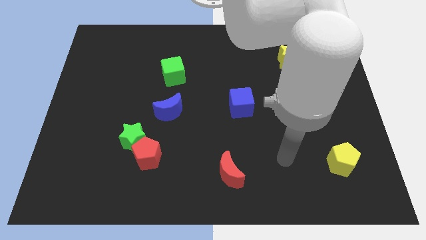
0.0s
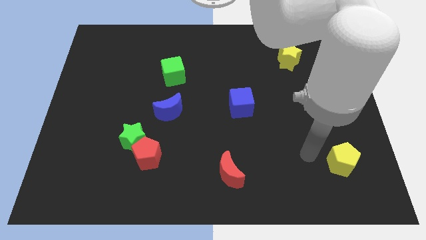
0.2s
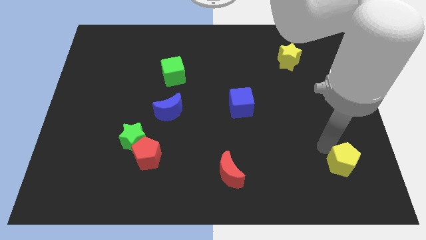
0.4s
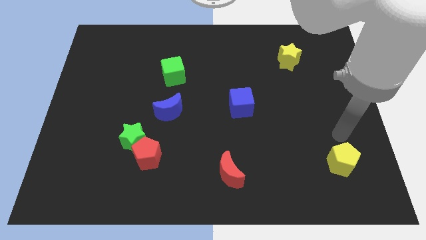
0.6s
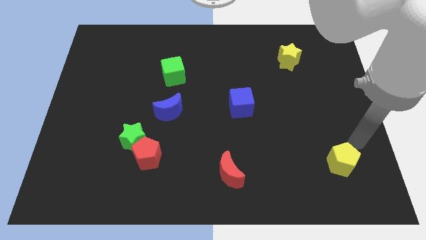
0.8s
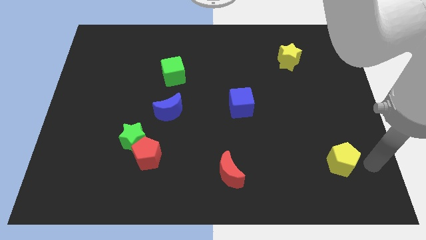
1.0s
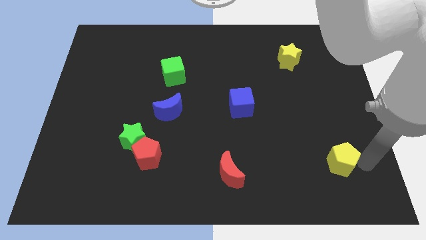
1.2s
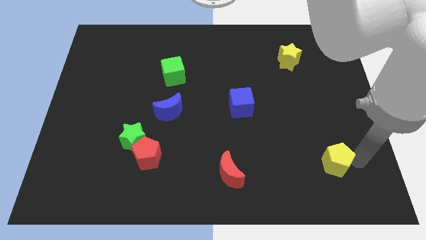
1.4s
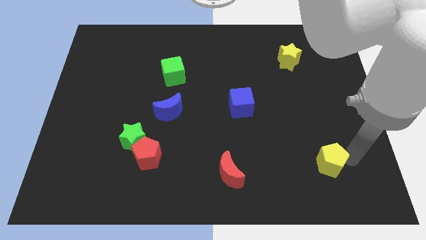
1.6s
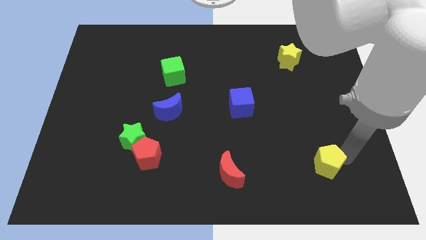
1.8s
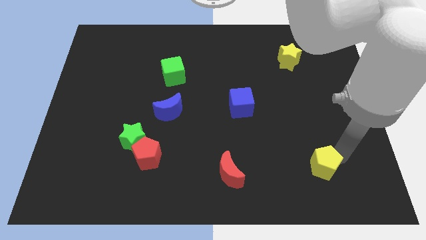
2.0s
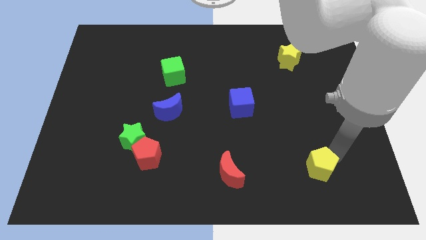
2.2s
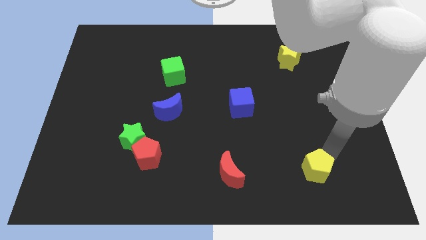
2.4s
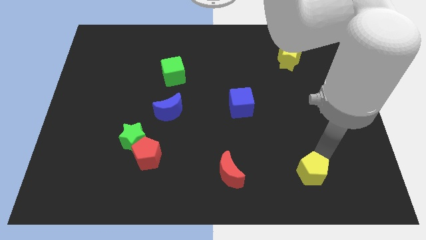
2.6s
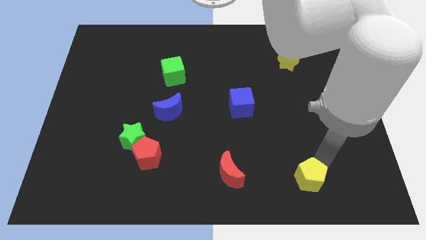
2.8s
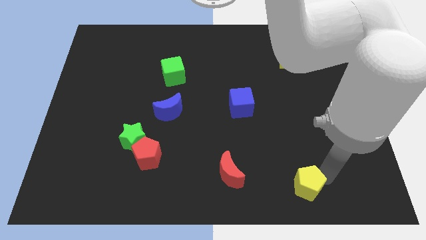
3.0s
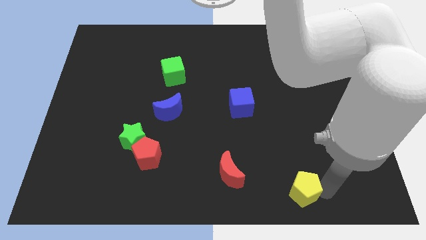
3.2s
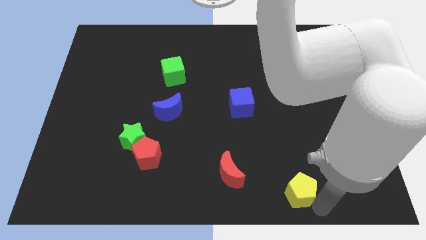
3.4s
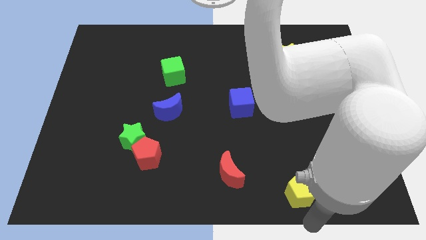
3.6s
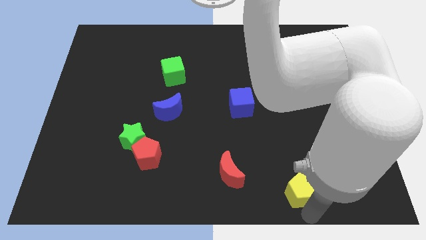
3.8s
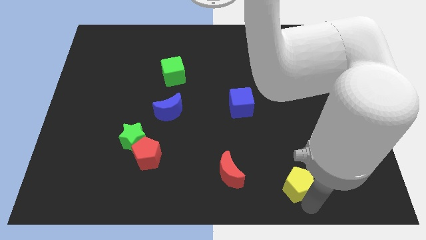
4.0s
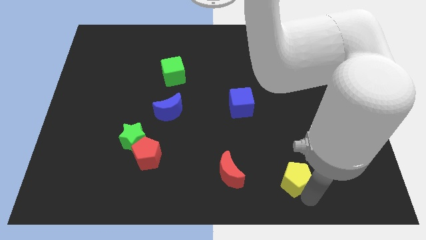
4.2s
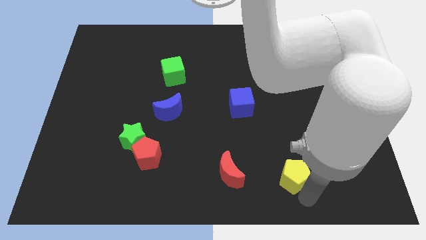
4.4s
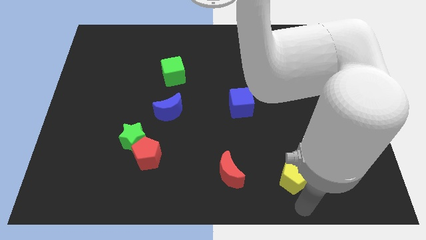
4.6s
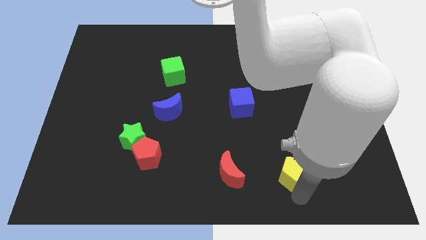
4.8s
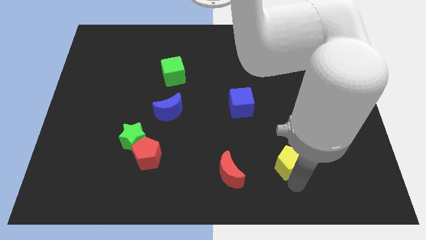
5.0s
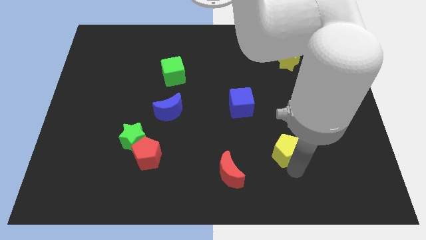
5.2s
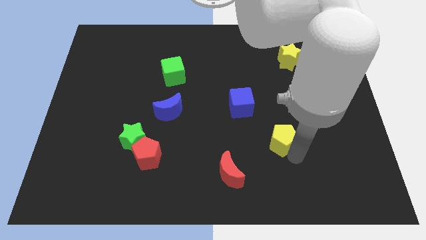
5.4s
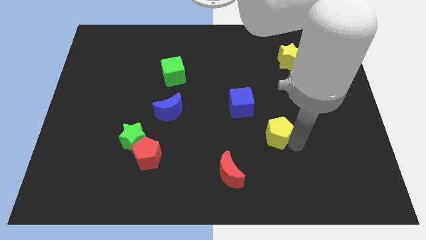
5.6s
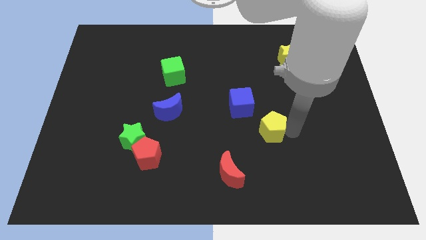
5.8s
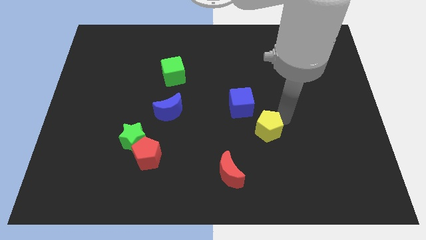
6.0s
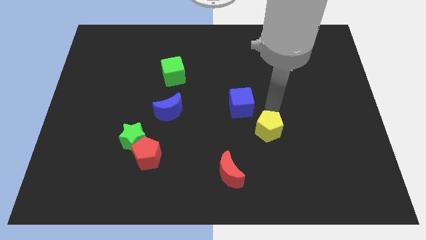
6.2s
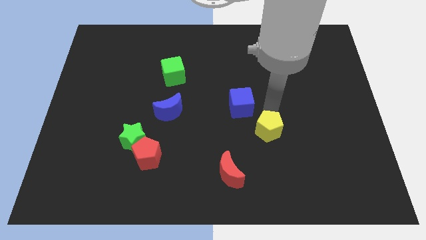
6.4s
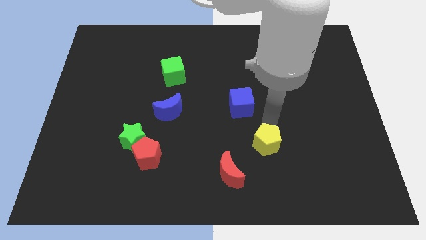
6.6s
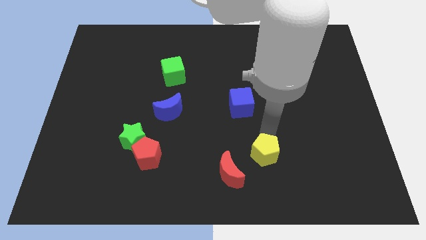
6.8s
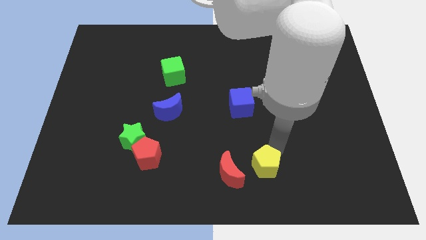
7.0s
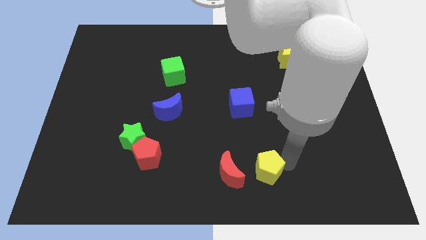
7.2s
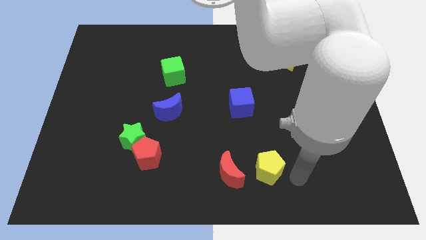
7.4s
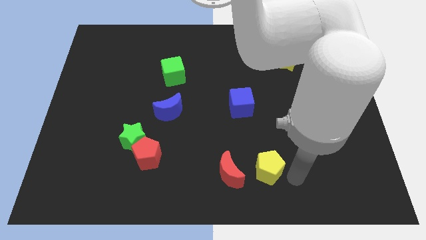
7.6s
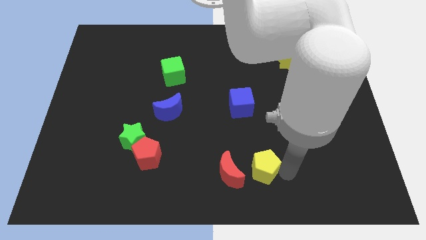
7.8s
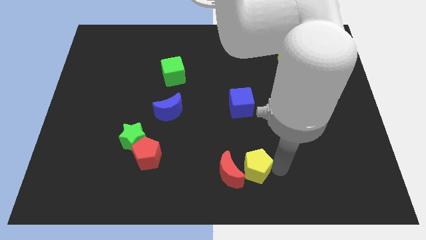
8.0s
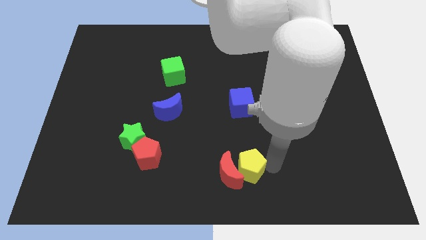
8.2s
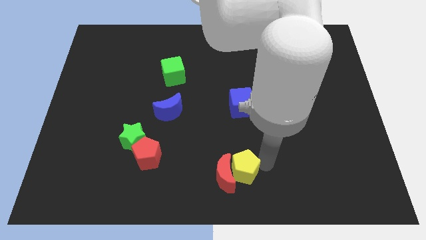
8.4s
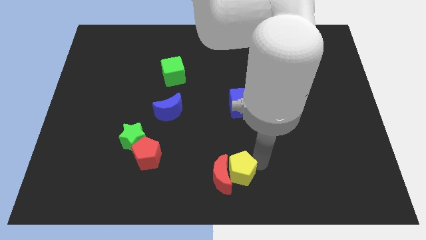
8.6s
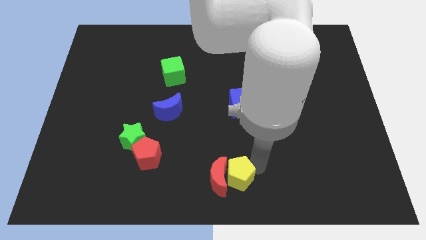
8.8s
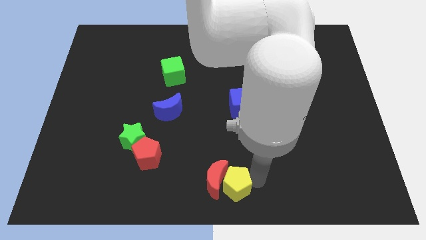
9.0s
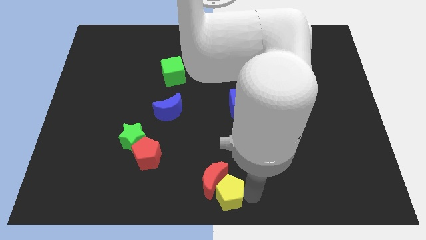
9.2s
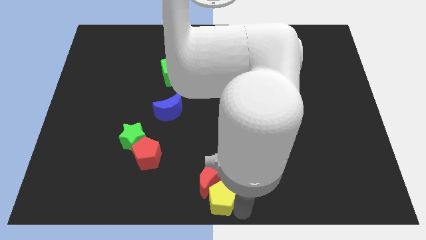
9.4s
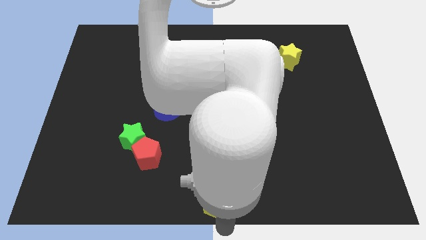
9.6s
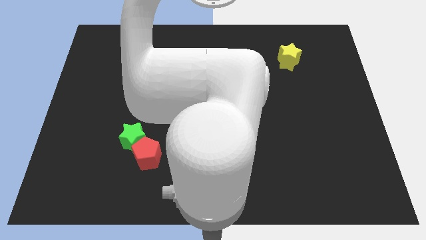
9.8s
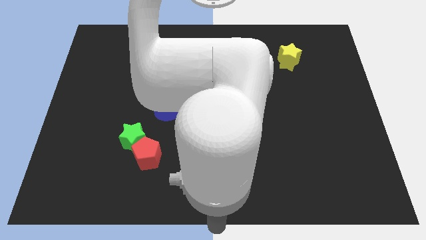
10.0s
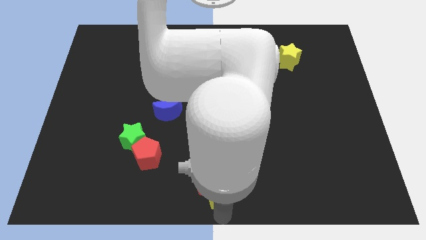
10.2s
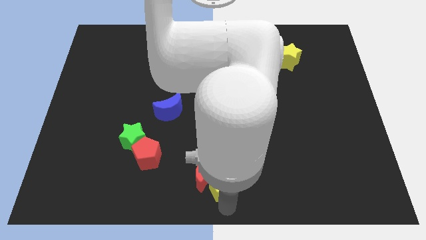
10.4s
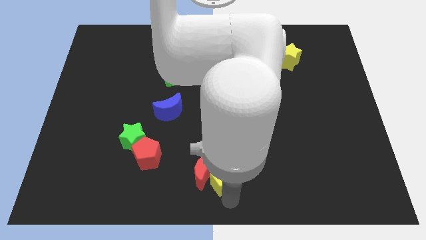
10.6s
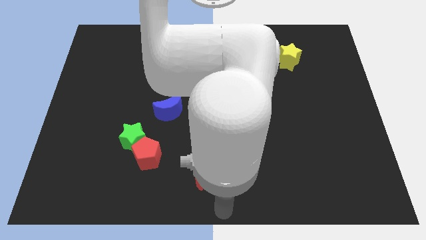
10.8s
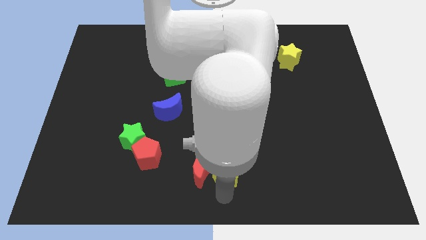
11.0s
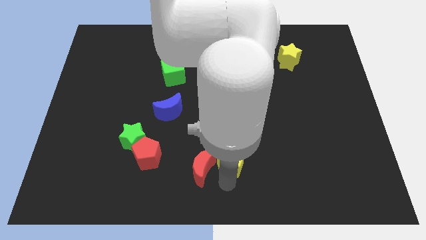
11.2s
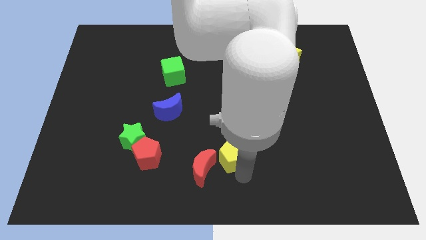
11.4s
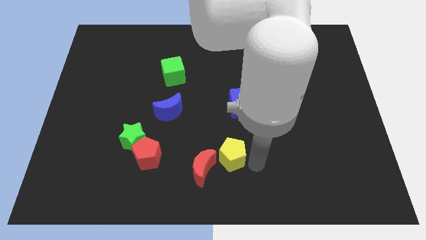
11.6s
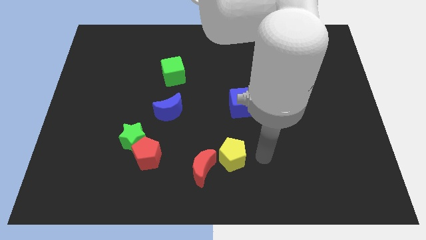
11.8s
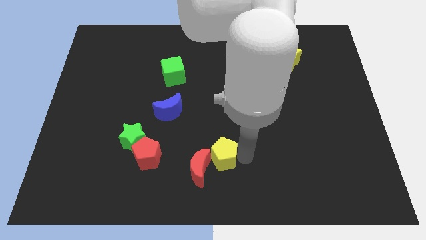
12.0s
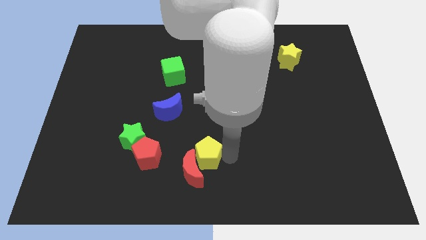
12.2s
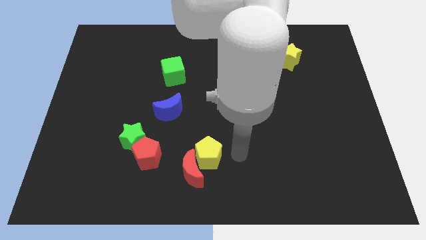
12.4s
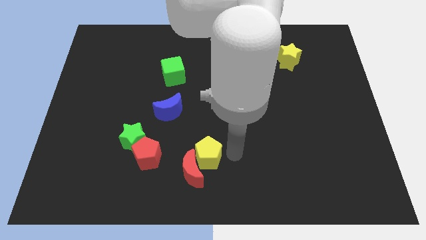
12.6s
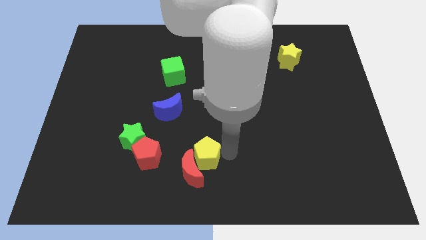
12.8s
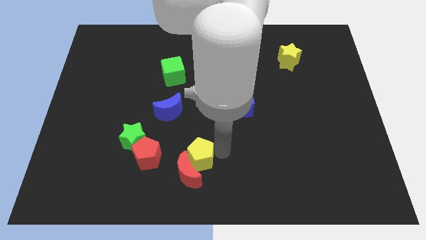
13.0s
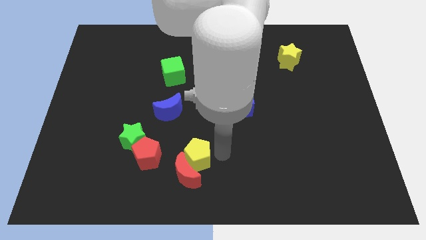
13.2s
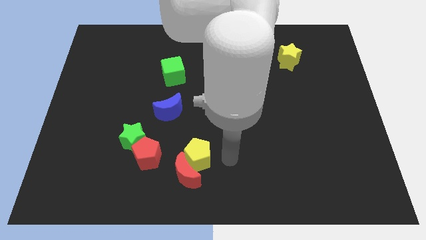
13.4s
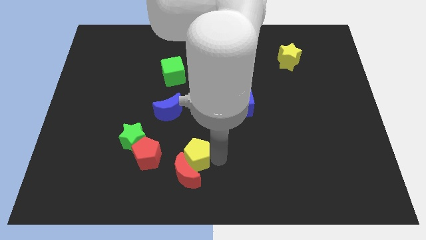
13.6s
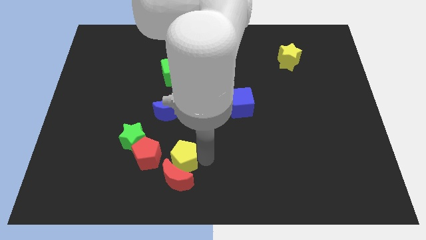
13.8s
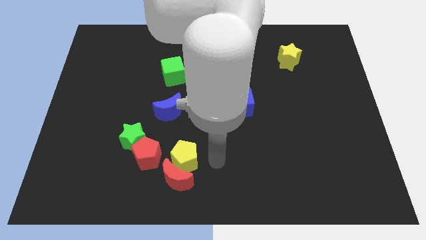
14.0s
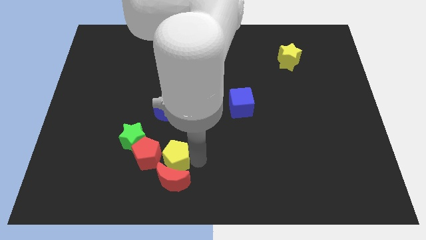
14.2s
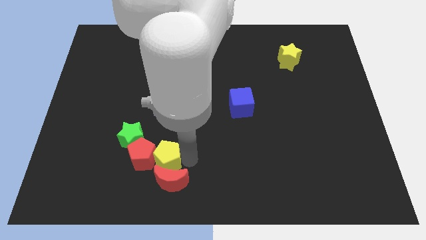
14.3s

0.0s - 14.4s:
move the yellow pentagon next to the red pentagon

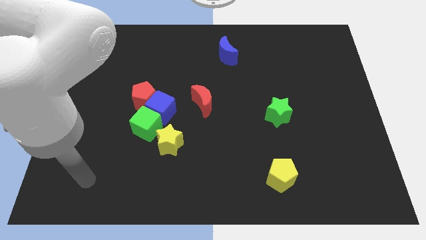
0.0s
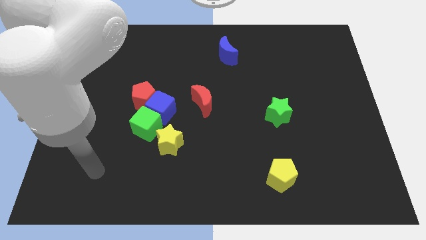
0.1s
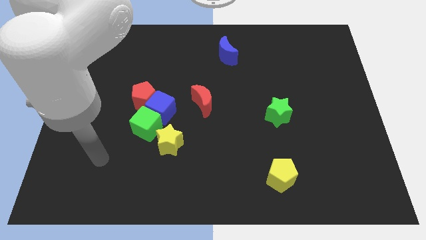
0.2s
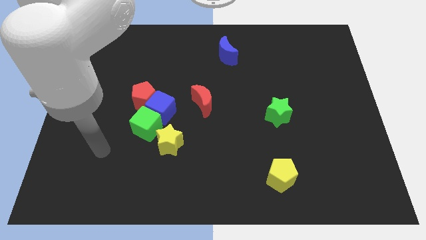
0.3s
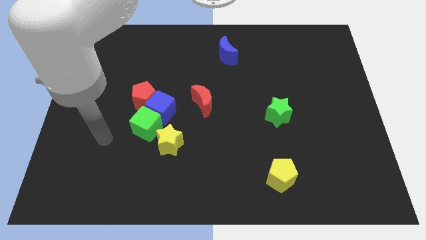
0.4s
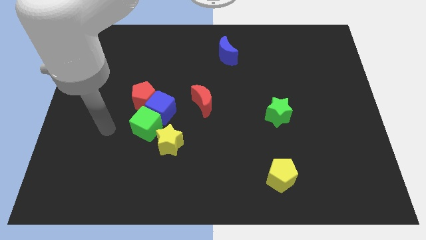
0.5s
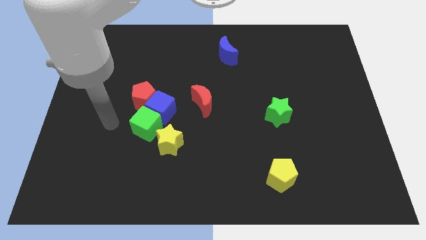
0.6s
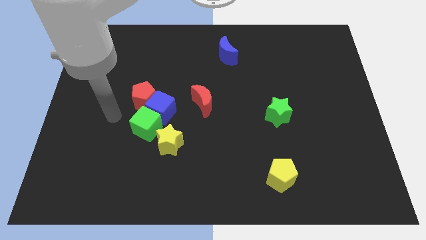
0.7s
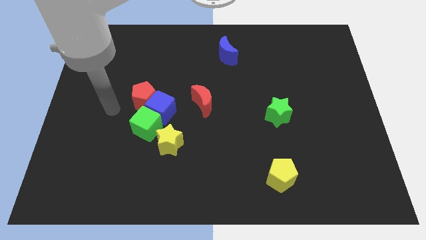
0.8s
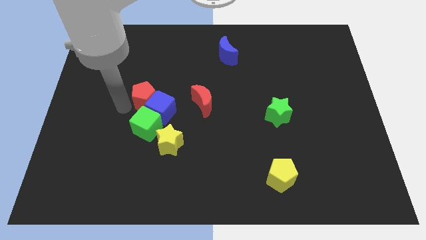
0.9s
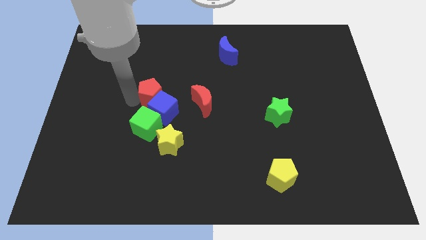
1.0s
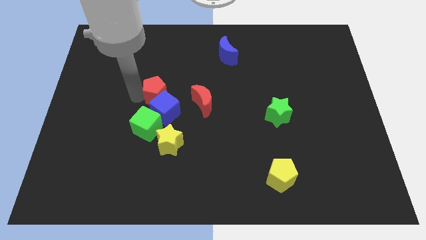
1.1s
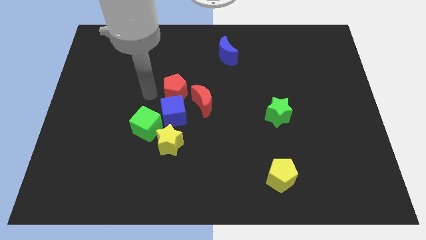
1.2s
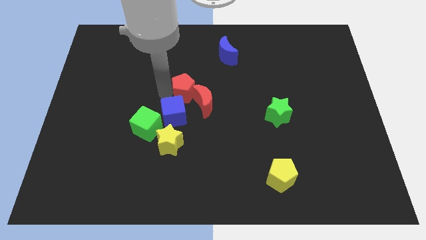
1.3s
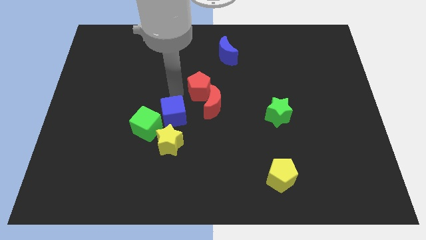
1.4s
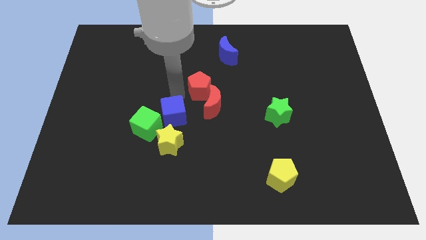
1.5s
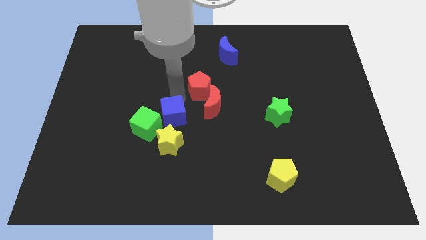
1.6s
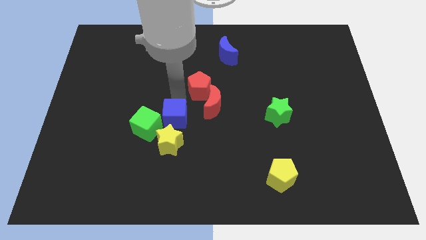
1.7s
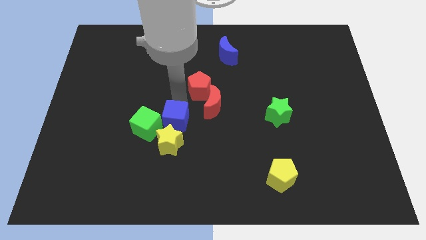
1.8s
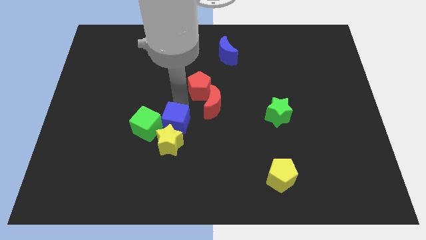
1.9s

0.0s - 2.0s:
slide the blue cube towards the yellow star
